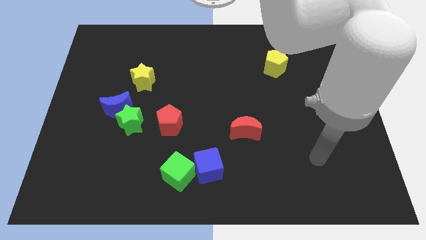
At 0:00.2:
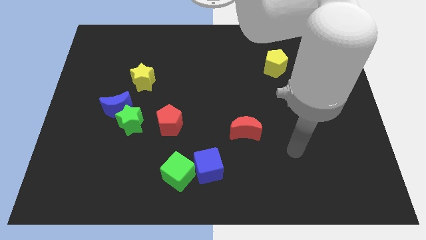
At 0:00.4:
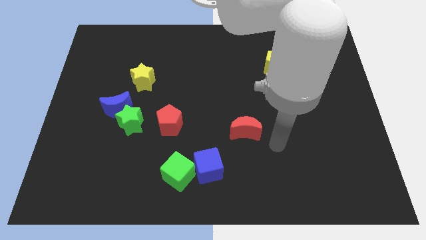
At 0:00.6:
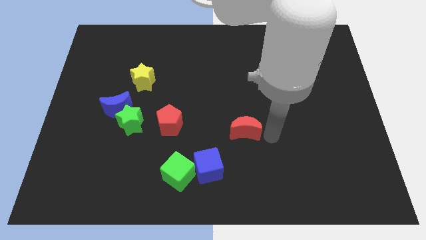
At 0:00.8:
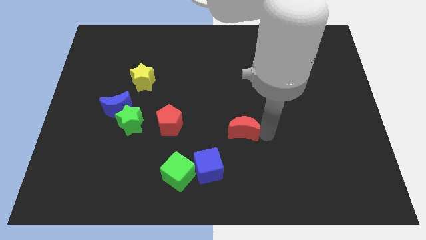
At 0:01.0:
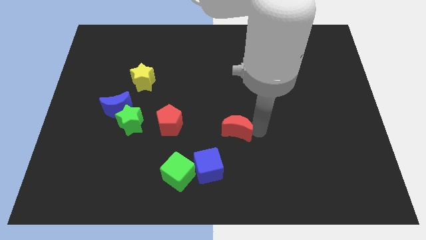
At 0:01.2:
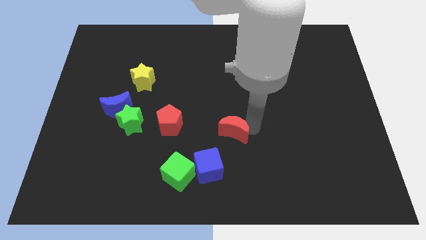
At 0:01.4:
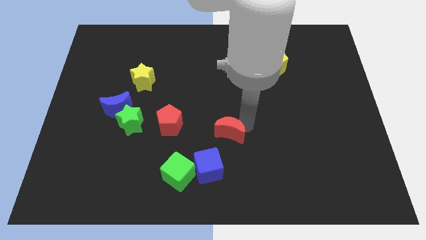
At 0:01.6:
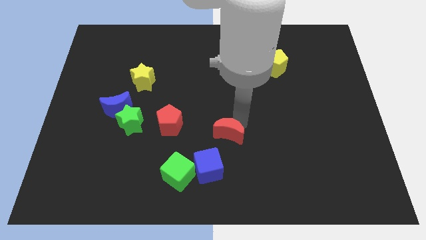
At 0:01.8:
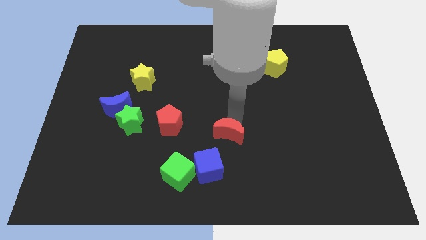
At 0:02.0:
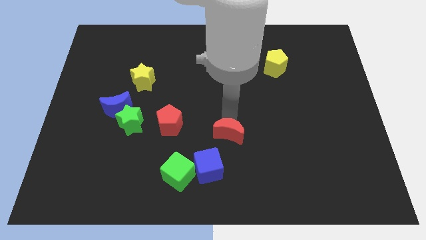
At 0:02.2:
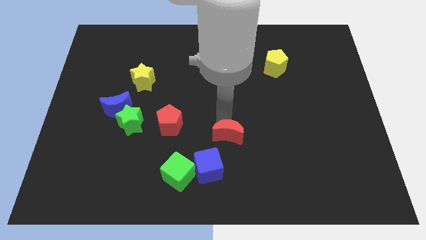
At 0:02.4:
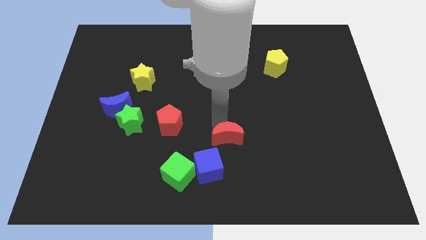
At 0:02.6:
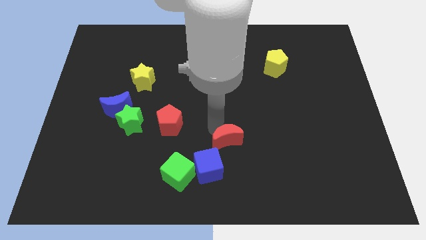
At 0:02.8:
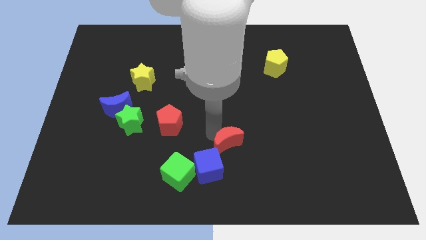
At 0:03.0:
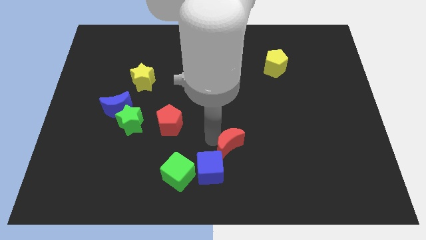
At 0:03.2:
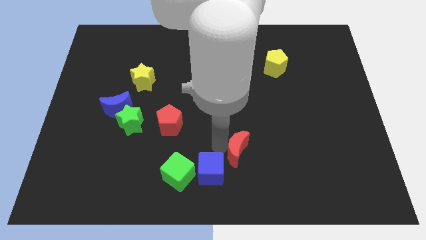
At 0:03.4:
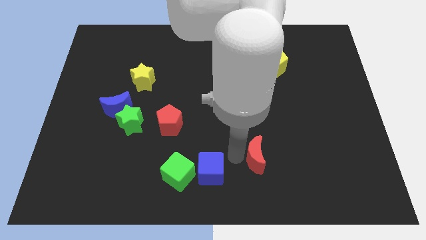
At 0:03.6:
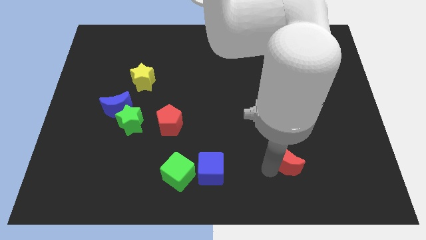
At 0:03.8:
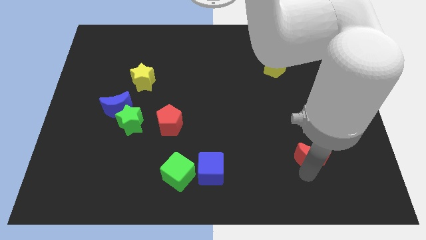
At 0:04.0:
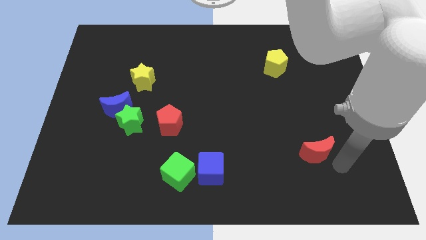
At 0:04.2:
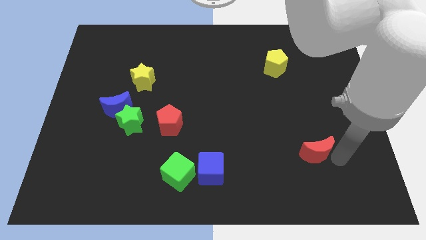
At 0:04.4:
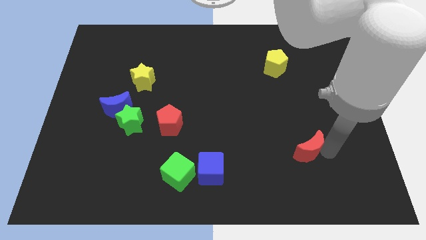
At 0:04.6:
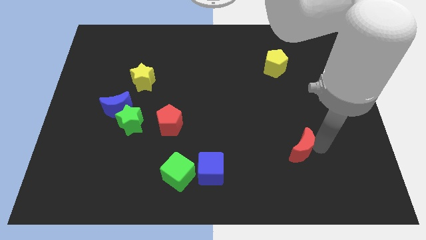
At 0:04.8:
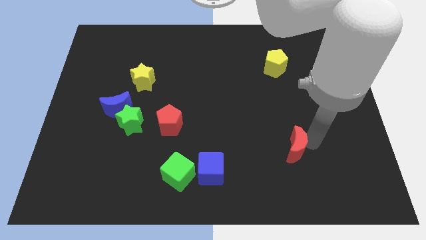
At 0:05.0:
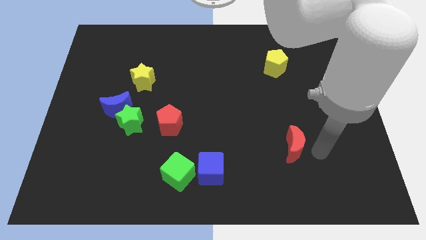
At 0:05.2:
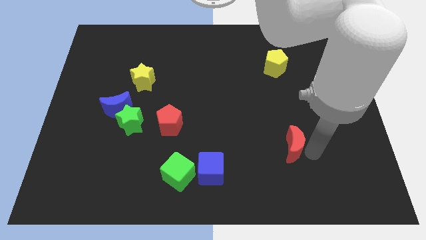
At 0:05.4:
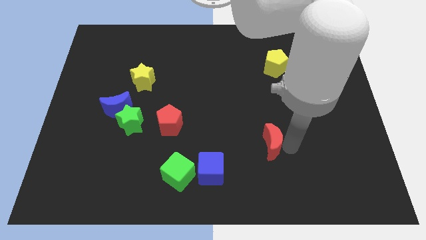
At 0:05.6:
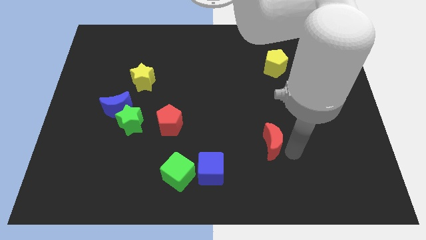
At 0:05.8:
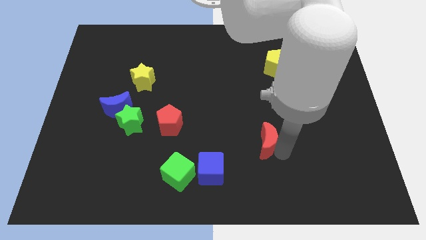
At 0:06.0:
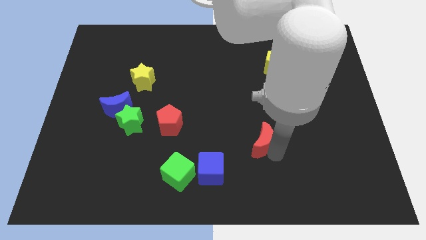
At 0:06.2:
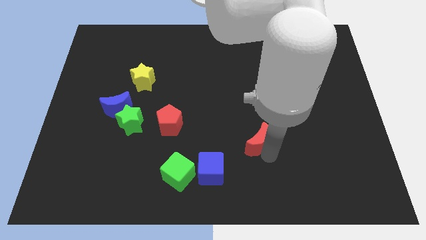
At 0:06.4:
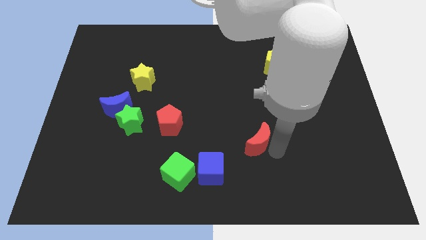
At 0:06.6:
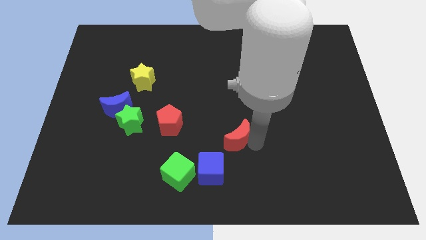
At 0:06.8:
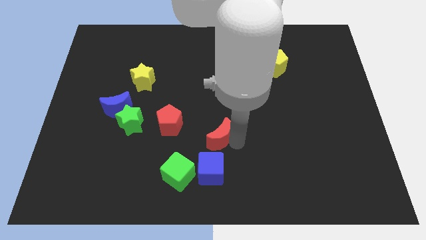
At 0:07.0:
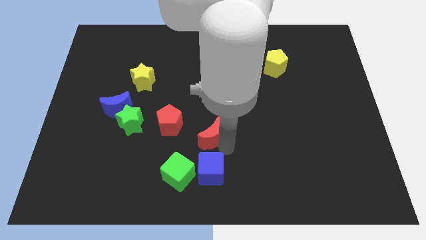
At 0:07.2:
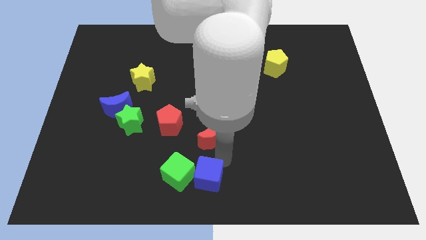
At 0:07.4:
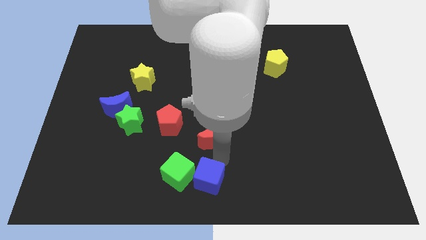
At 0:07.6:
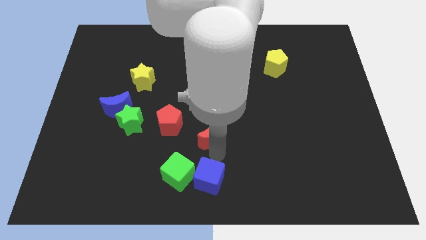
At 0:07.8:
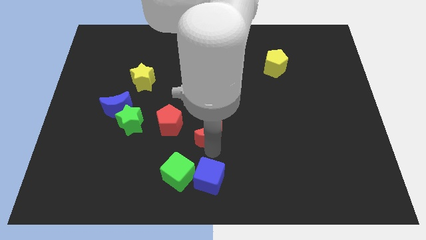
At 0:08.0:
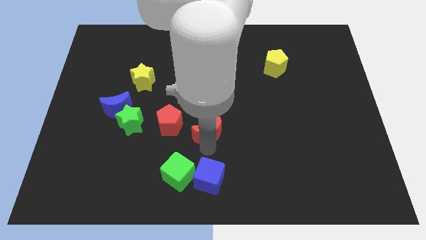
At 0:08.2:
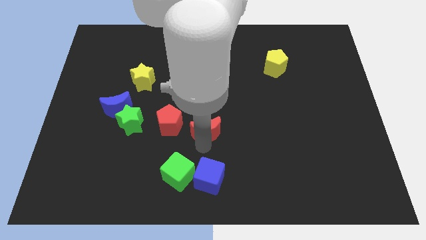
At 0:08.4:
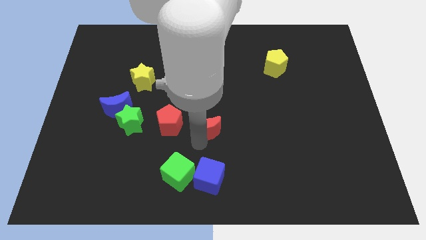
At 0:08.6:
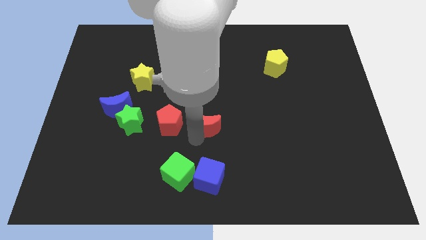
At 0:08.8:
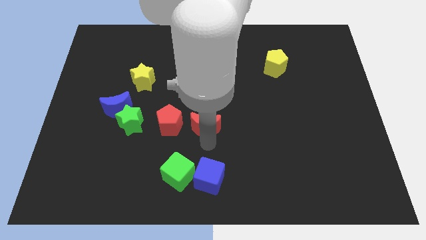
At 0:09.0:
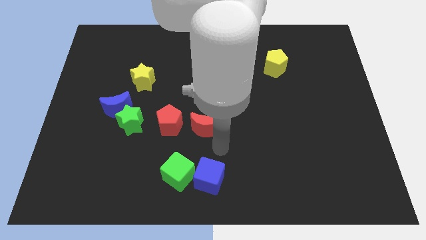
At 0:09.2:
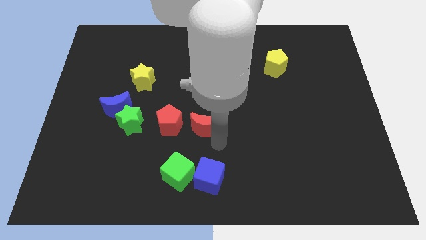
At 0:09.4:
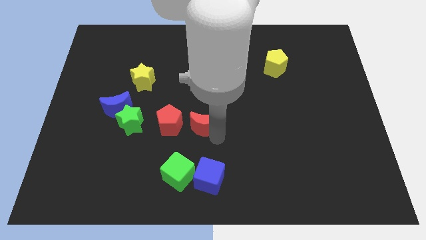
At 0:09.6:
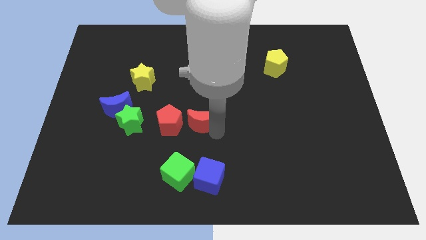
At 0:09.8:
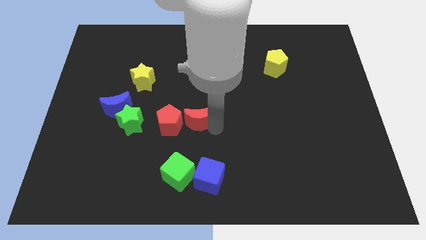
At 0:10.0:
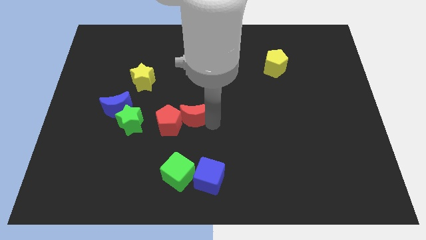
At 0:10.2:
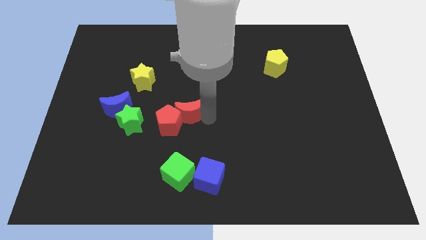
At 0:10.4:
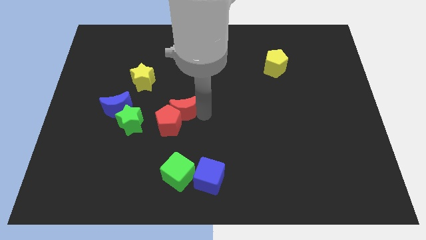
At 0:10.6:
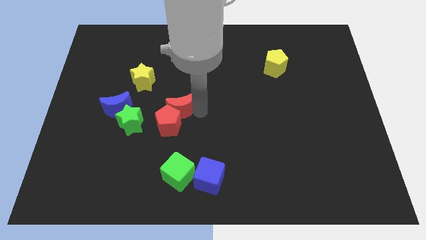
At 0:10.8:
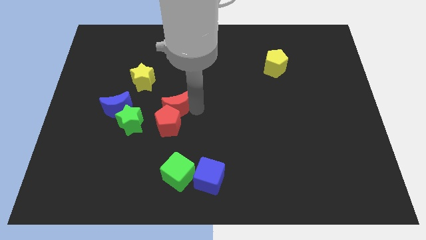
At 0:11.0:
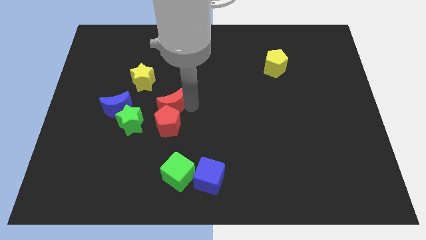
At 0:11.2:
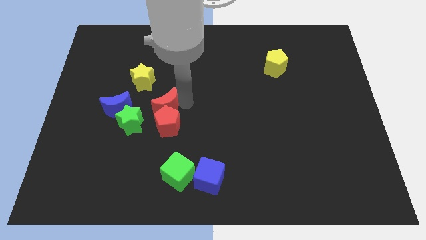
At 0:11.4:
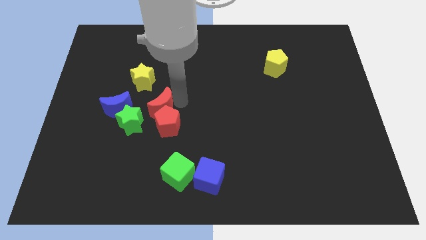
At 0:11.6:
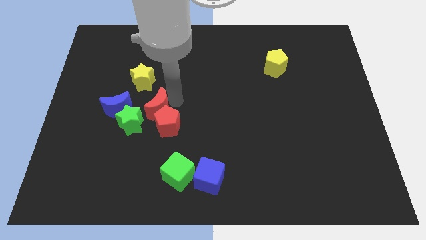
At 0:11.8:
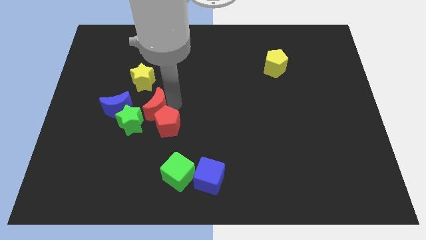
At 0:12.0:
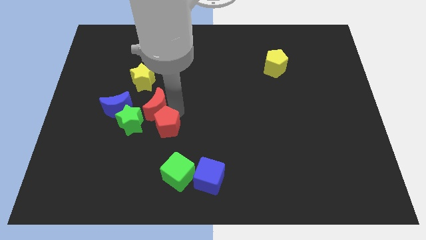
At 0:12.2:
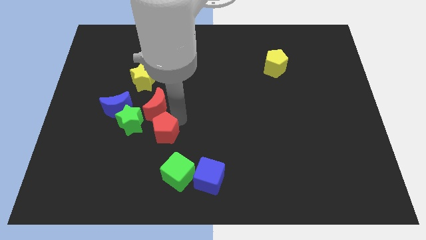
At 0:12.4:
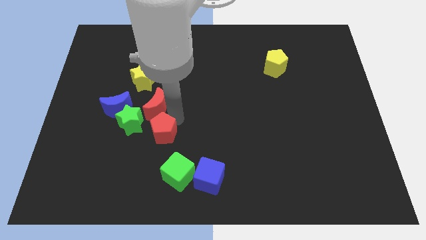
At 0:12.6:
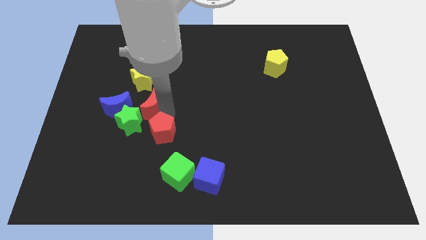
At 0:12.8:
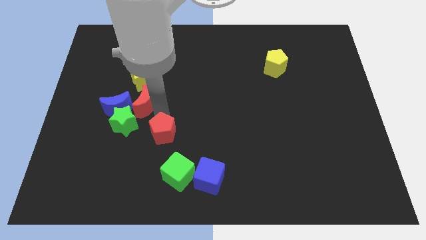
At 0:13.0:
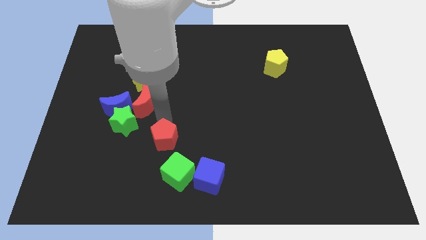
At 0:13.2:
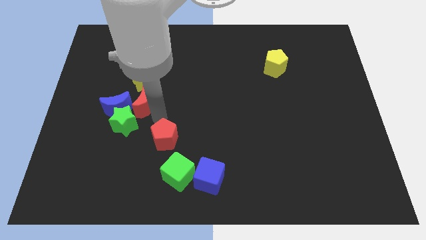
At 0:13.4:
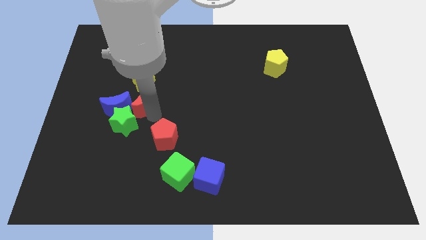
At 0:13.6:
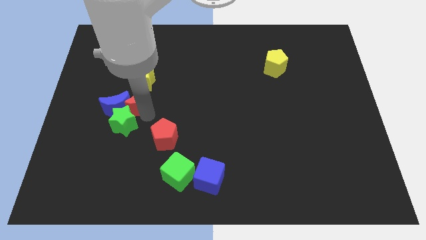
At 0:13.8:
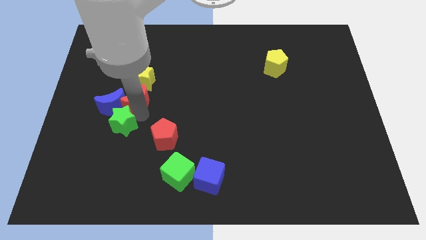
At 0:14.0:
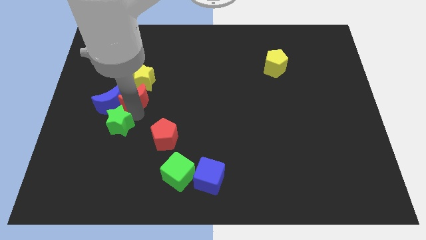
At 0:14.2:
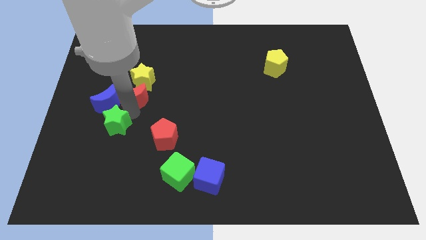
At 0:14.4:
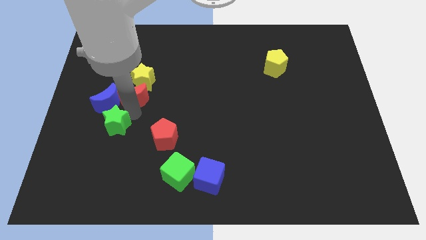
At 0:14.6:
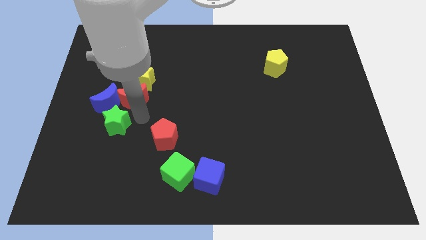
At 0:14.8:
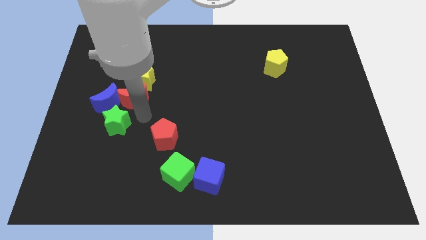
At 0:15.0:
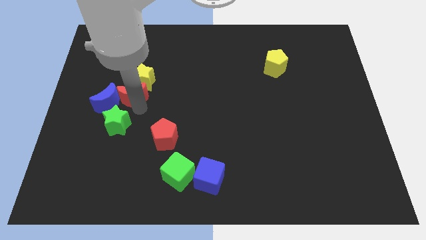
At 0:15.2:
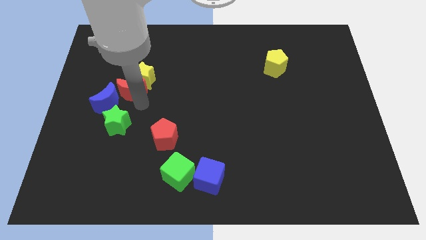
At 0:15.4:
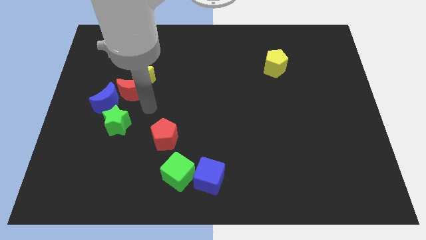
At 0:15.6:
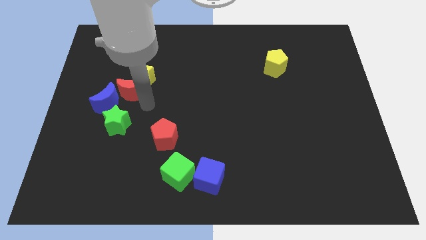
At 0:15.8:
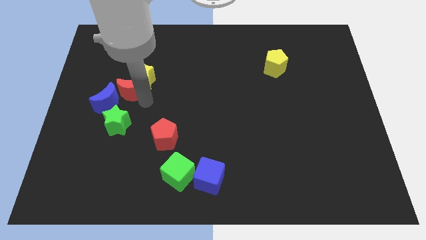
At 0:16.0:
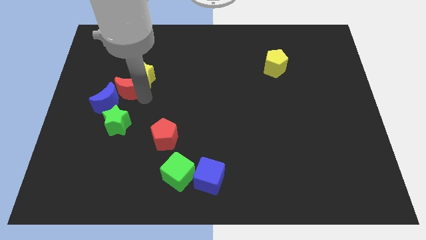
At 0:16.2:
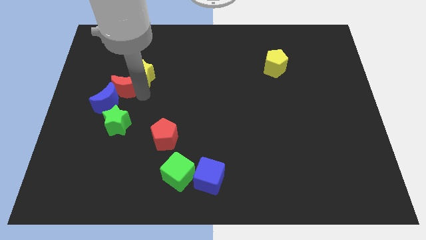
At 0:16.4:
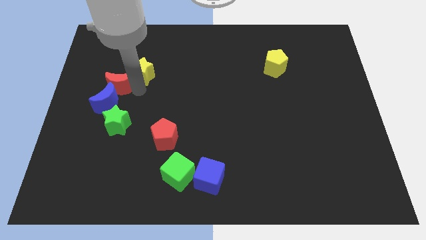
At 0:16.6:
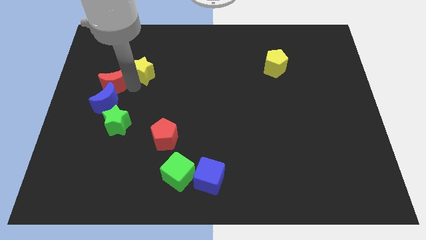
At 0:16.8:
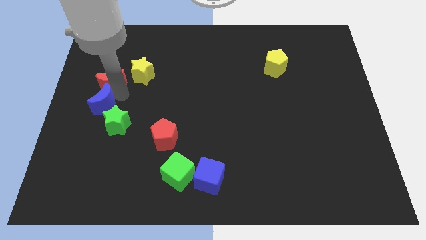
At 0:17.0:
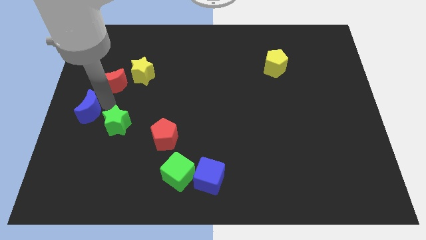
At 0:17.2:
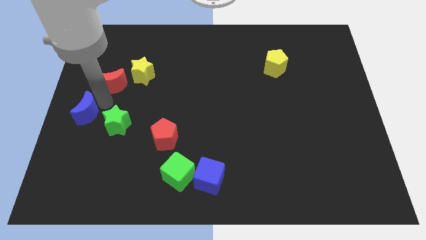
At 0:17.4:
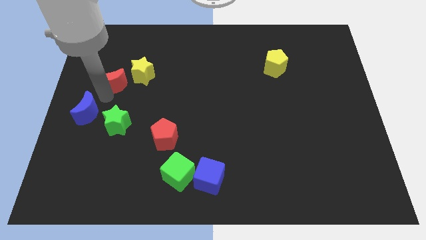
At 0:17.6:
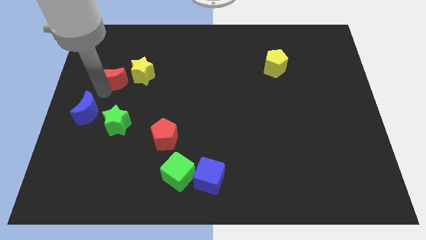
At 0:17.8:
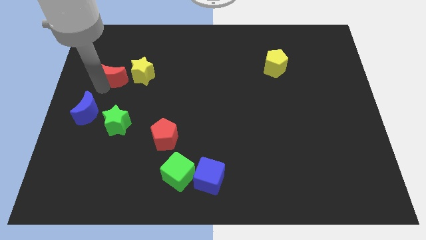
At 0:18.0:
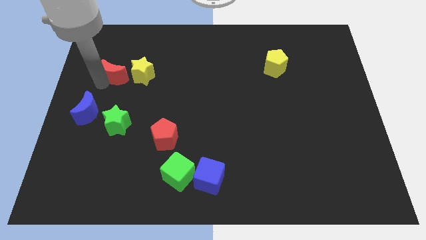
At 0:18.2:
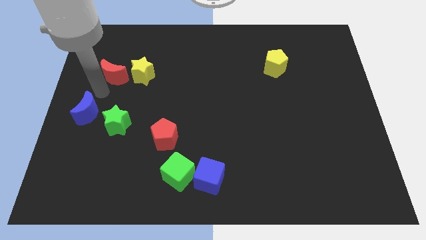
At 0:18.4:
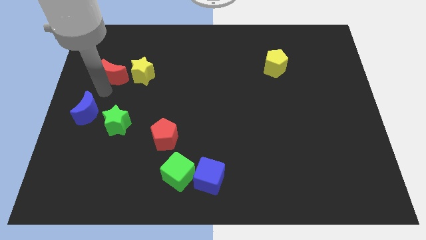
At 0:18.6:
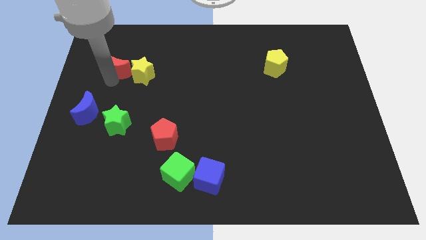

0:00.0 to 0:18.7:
move the red moon to the top left side of the yellow star
